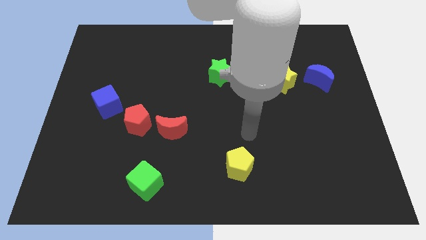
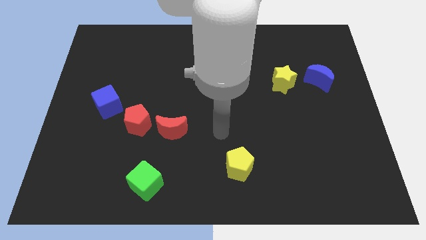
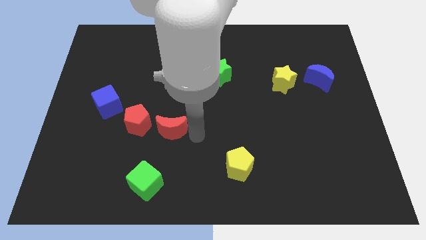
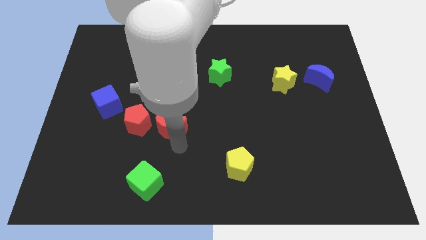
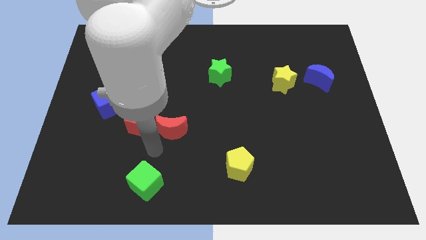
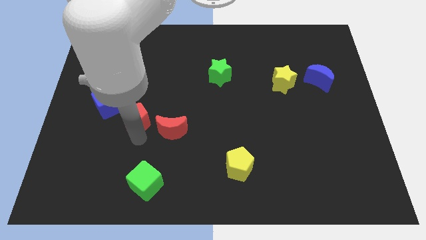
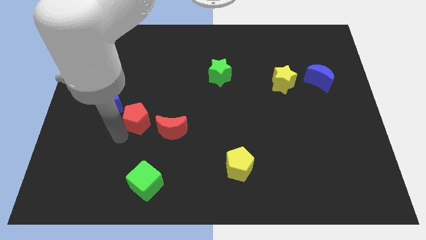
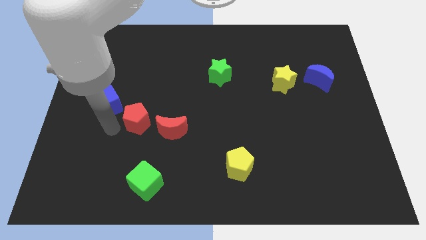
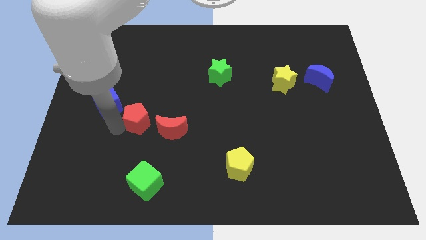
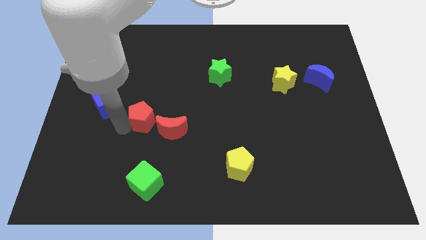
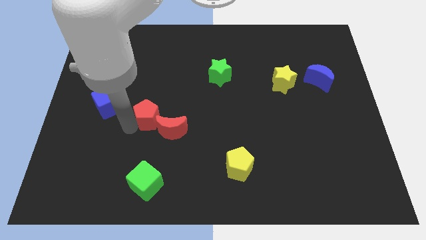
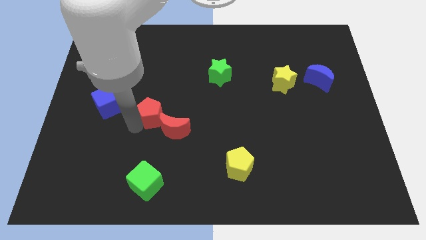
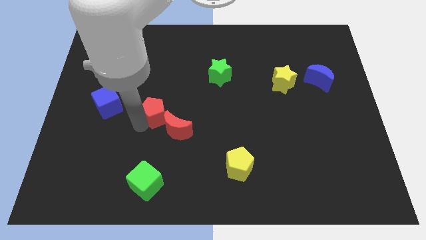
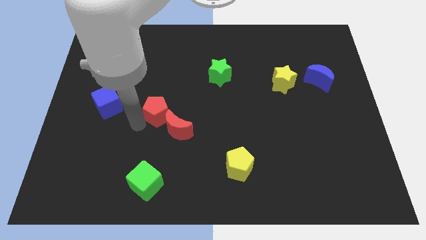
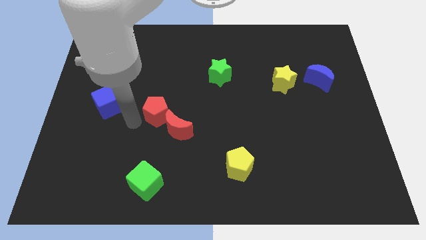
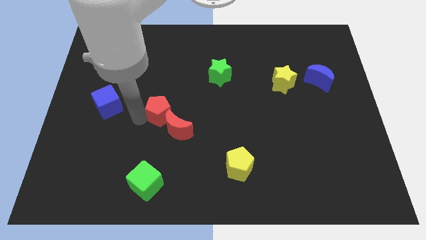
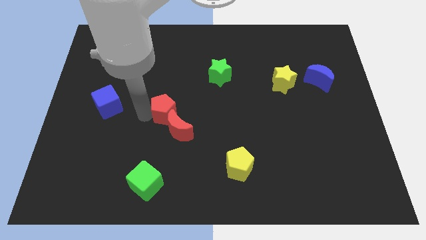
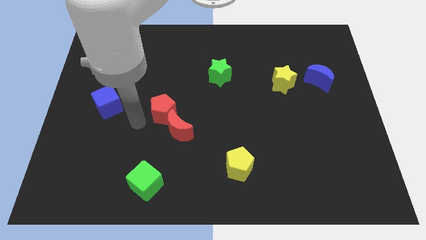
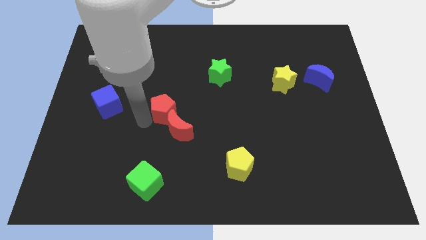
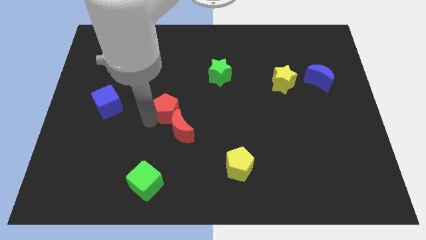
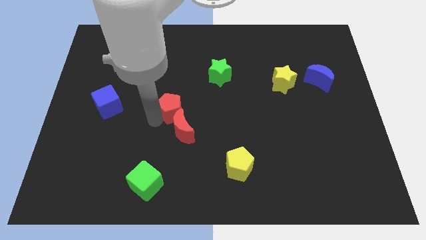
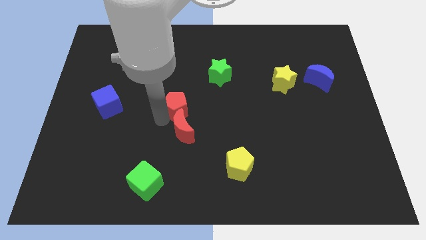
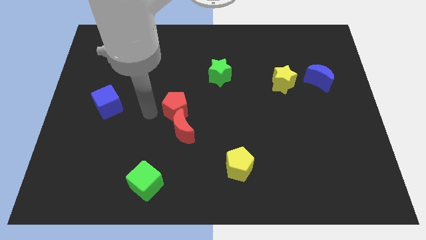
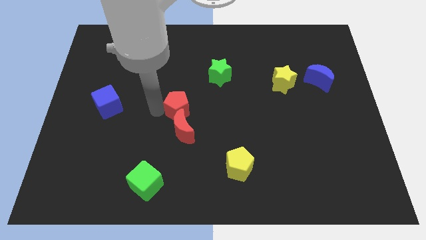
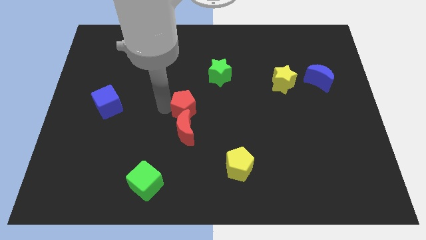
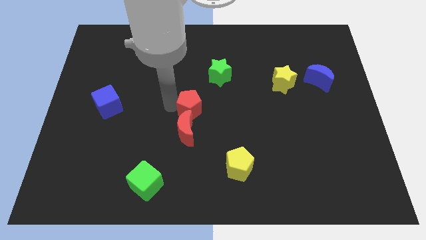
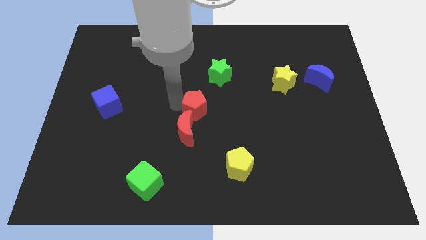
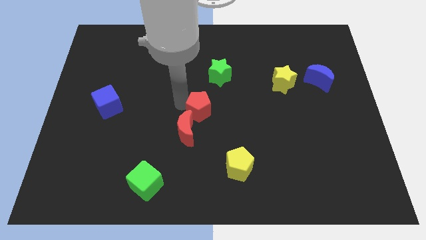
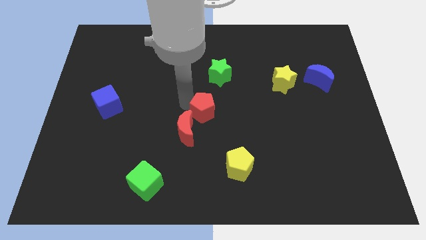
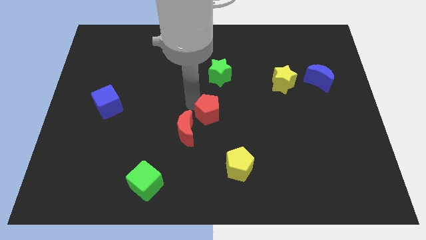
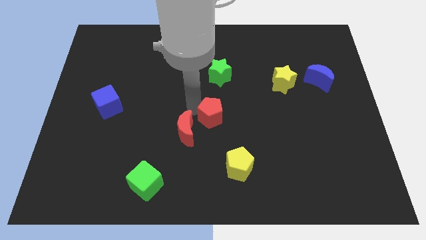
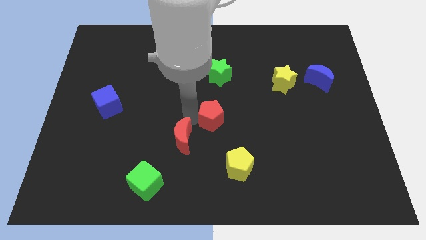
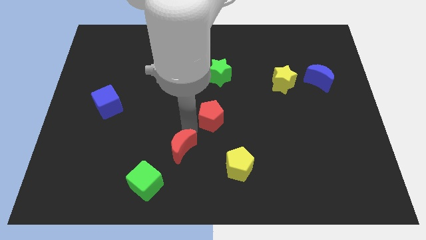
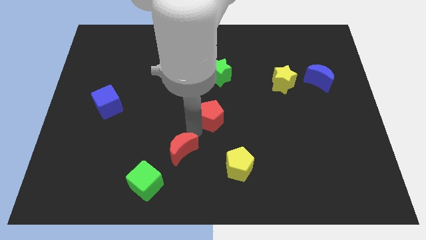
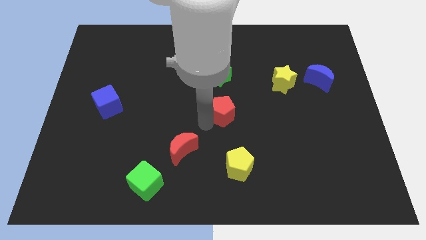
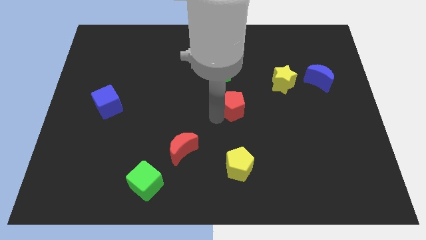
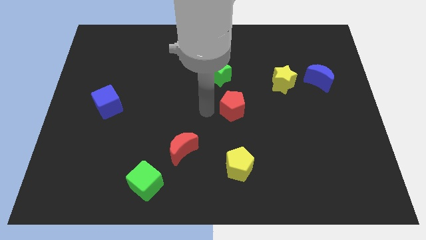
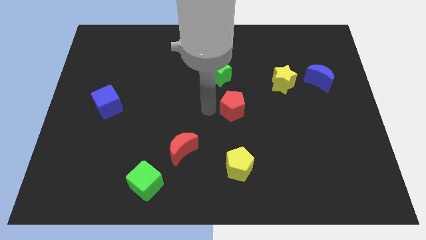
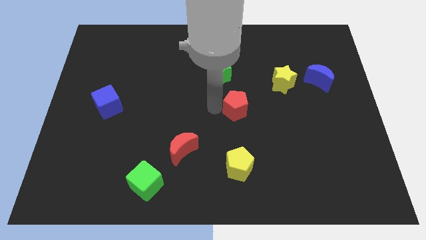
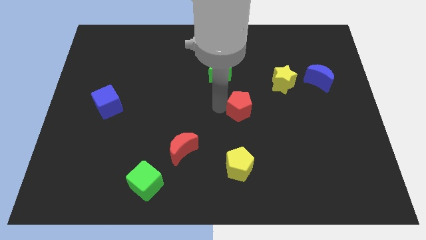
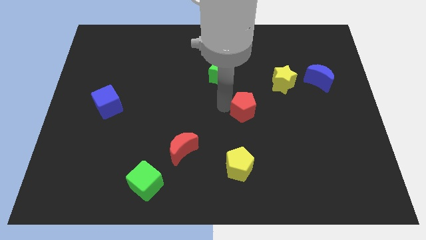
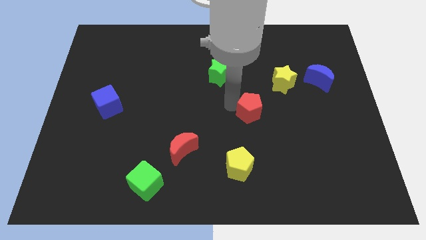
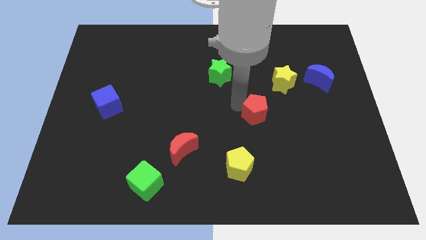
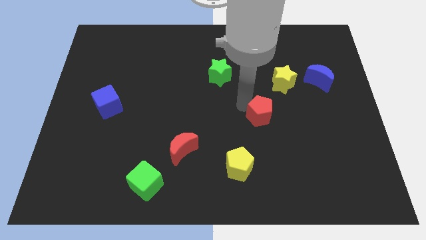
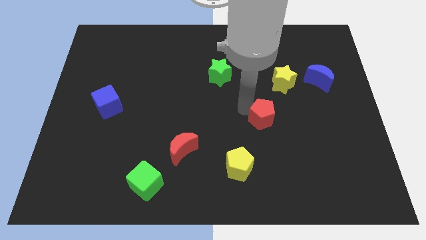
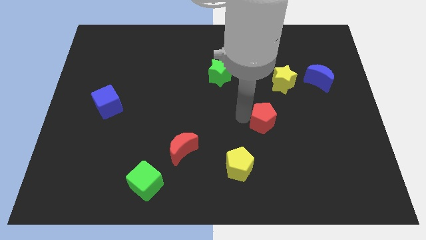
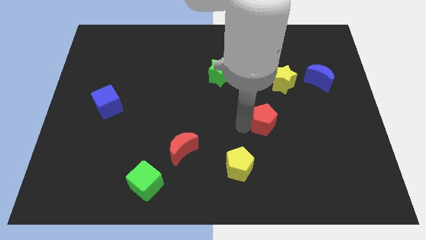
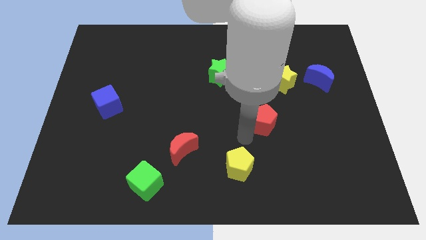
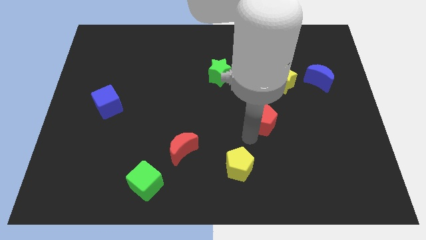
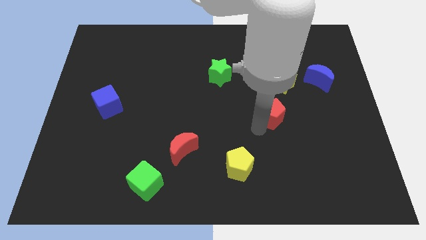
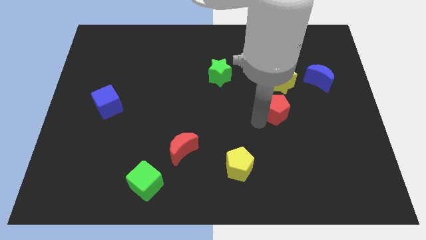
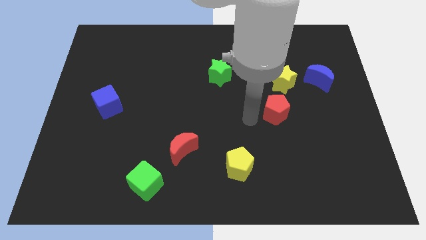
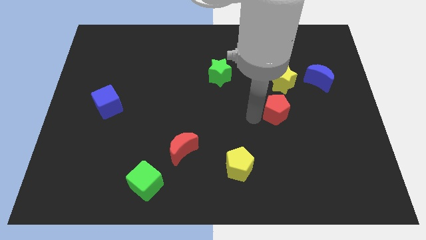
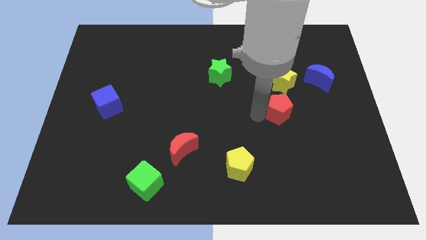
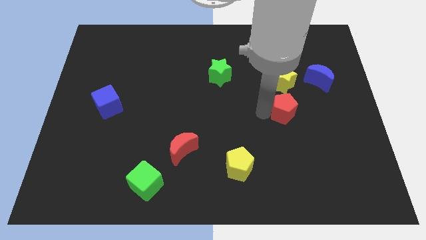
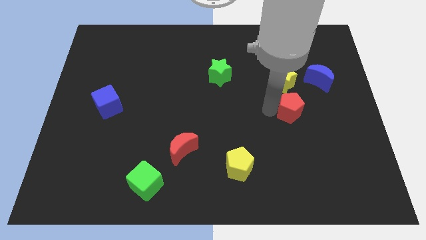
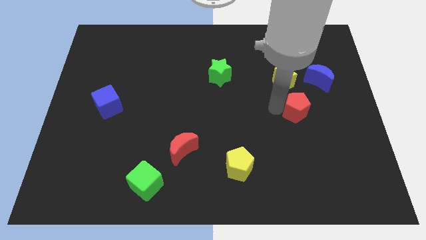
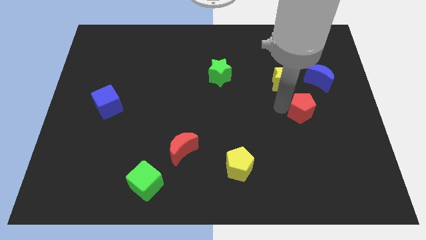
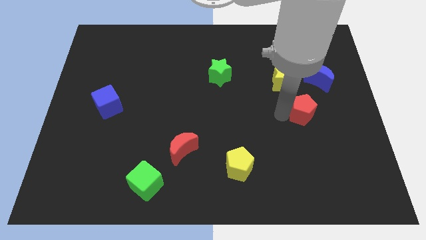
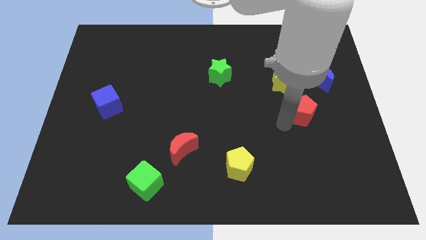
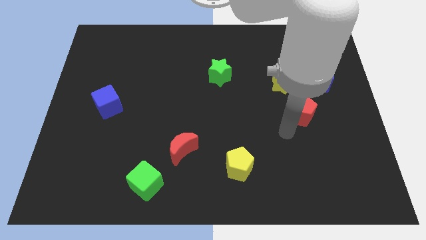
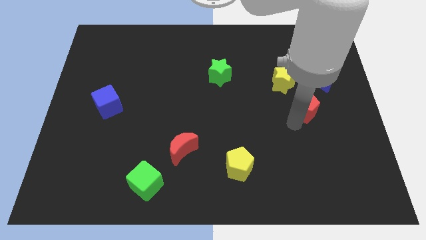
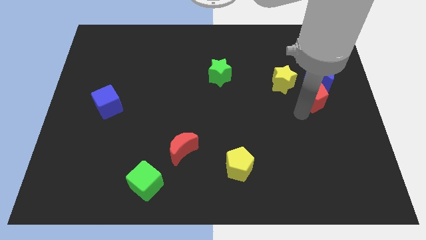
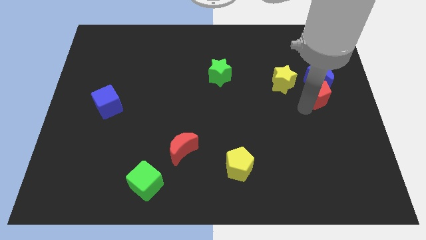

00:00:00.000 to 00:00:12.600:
move the red pentagon to the right side of the board

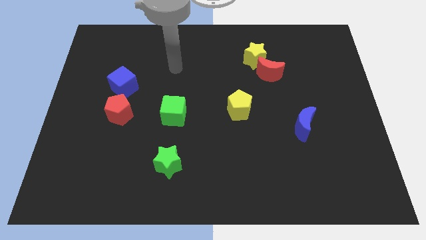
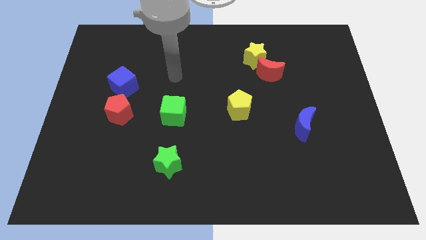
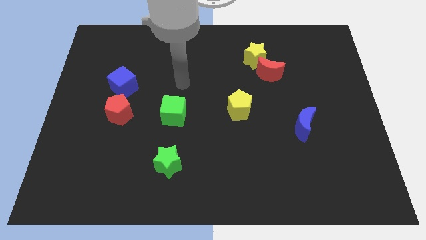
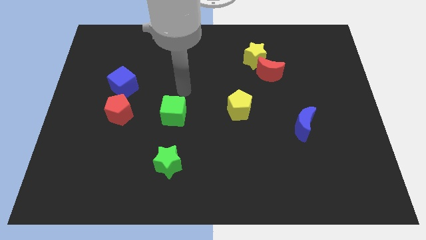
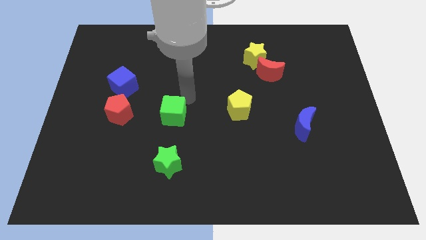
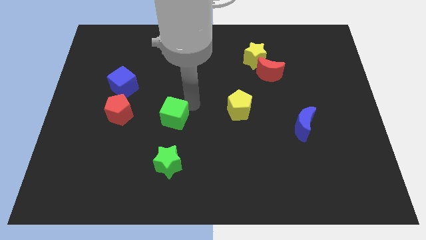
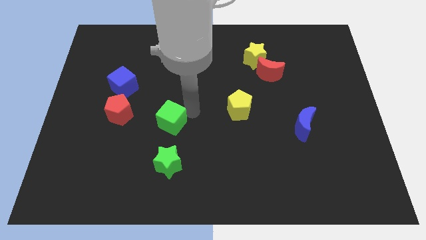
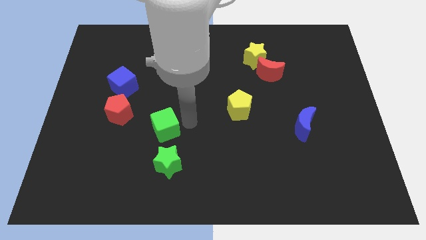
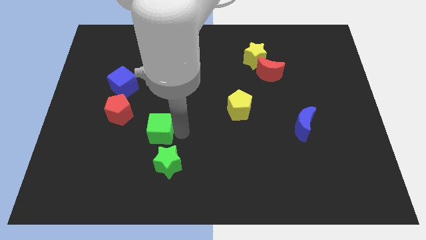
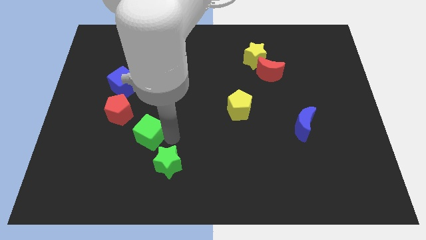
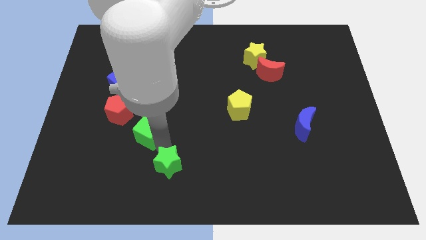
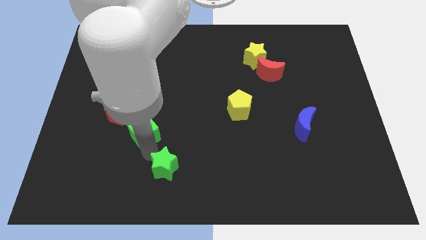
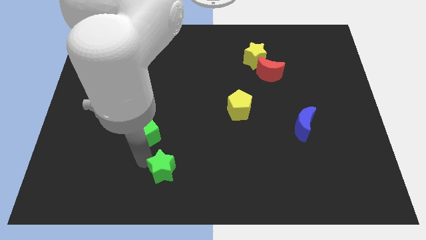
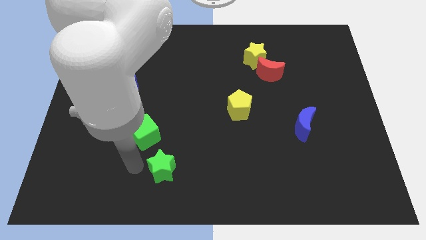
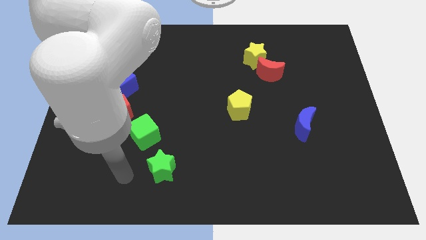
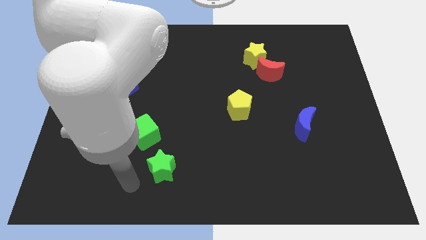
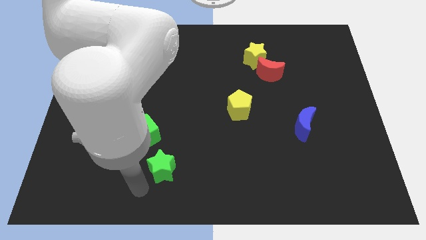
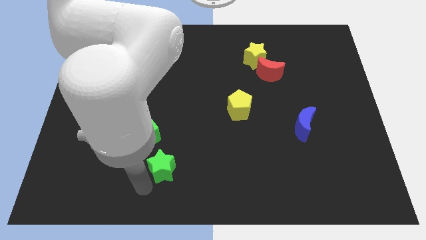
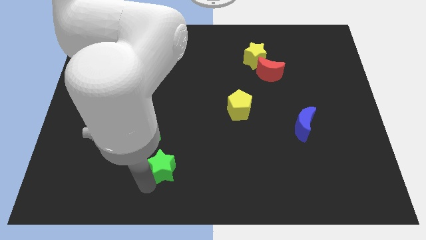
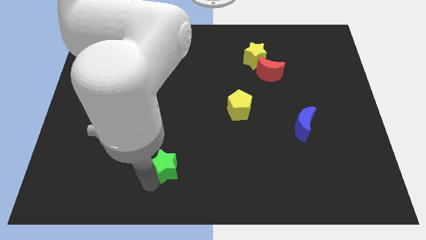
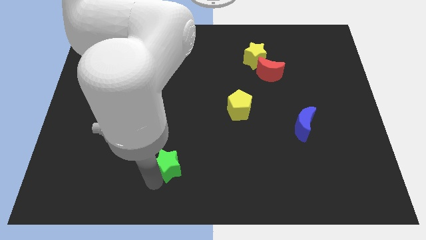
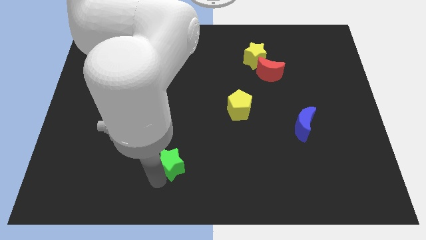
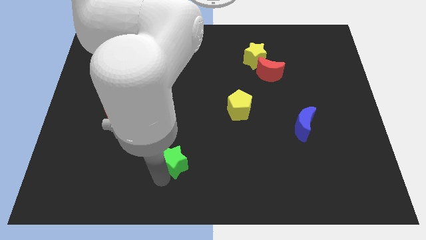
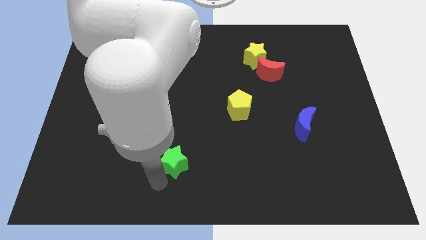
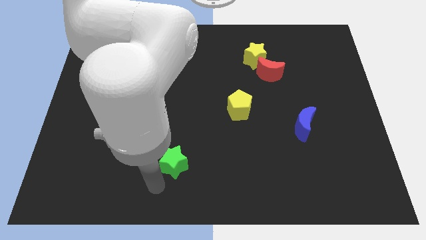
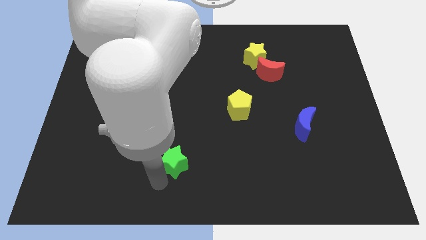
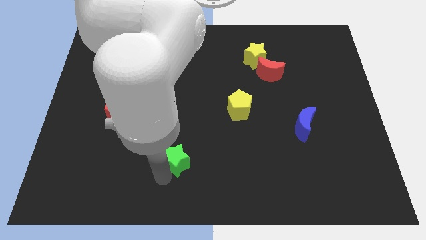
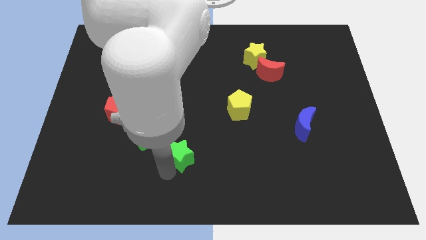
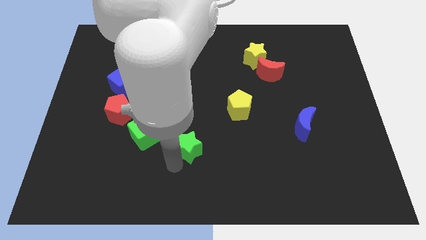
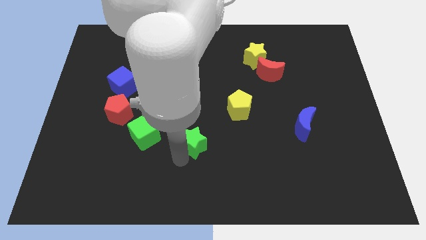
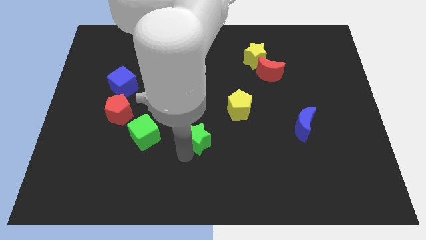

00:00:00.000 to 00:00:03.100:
slide the green star to the center
